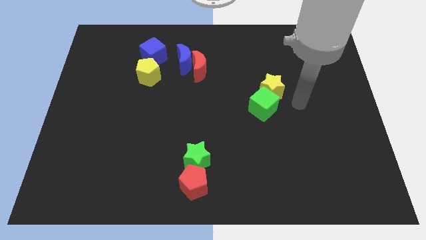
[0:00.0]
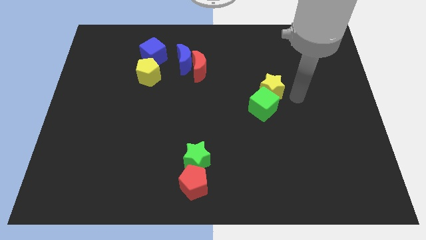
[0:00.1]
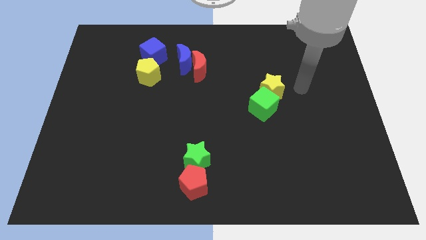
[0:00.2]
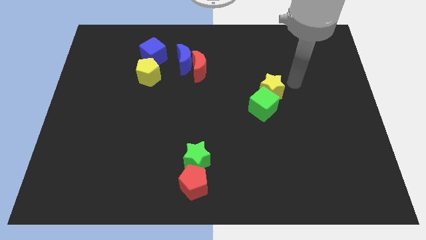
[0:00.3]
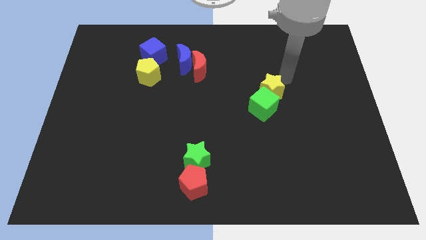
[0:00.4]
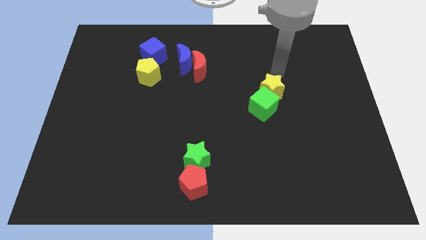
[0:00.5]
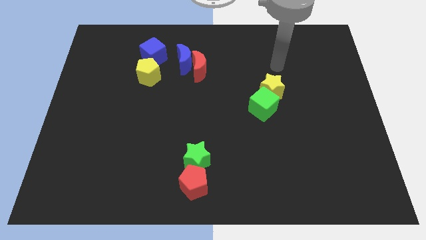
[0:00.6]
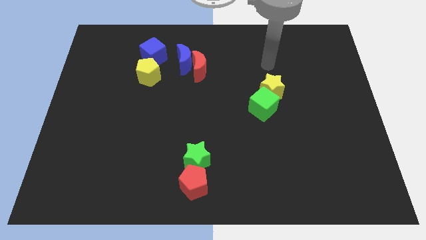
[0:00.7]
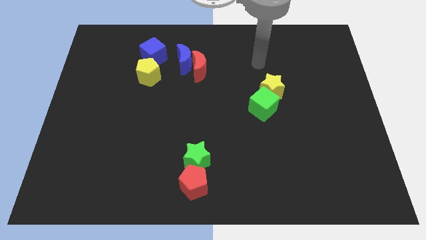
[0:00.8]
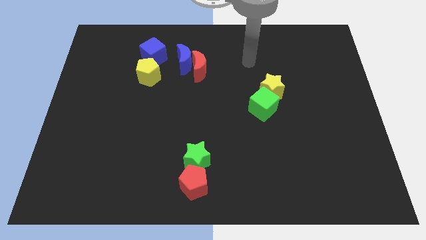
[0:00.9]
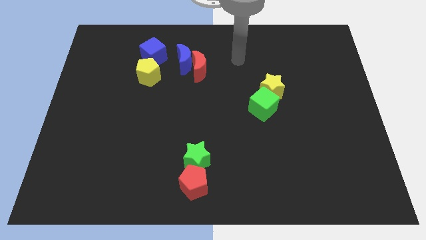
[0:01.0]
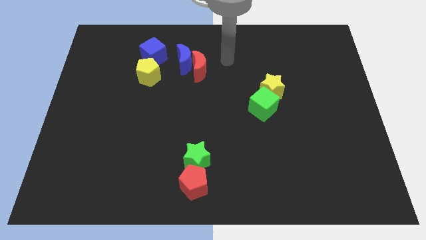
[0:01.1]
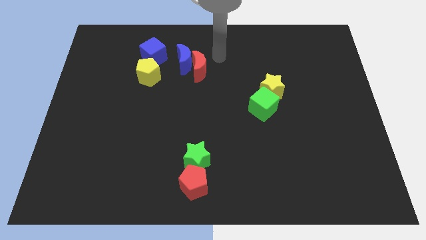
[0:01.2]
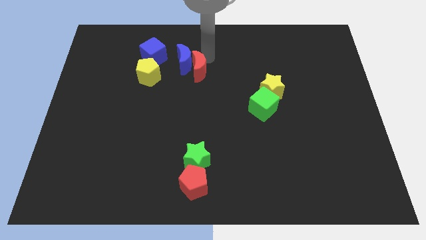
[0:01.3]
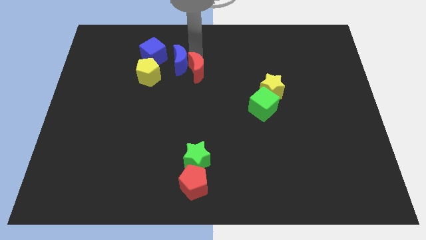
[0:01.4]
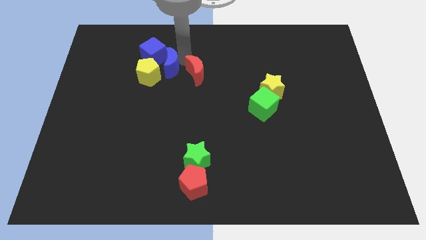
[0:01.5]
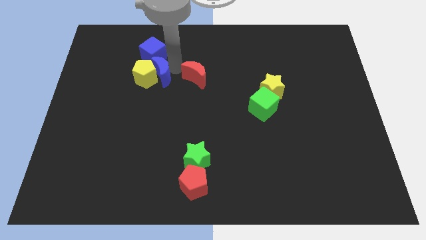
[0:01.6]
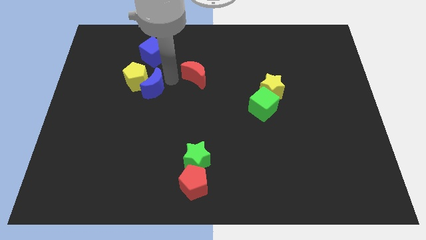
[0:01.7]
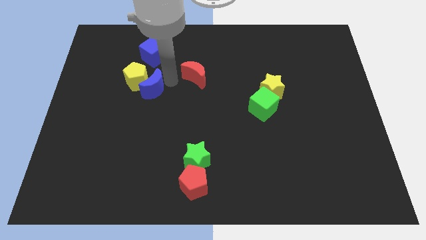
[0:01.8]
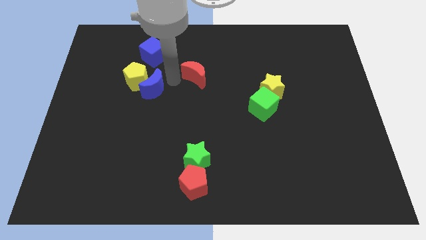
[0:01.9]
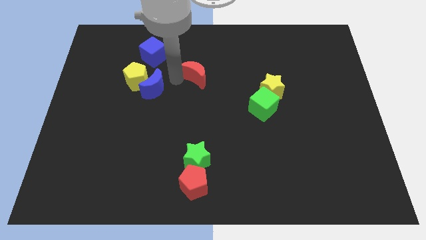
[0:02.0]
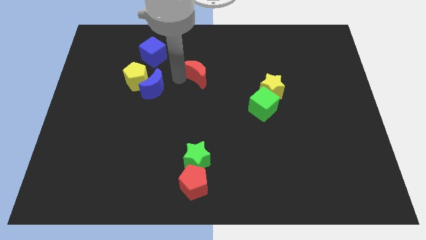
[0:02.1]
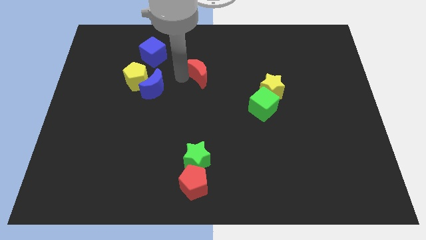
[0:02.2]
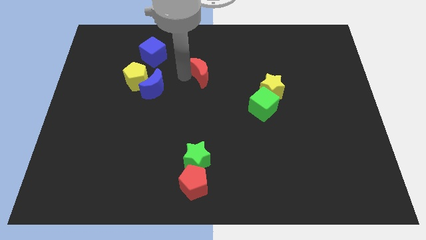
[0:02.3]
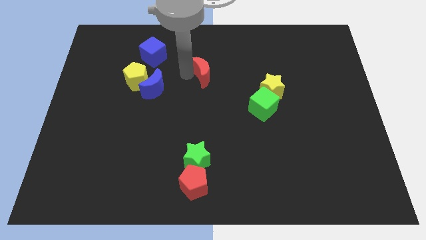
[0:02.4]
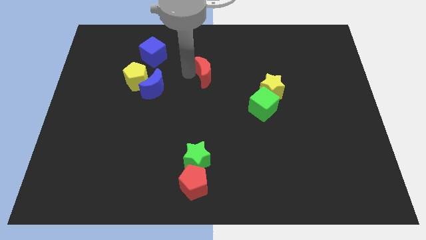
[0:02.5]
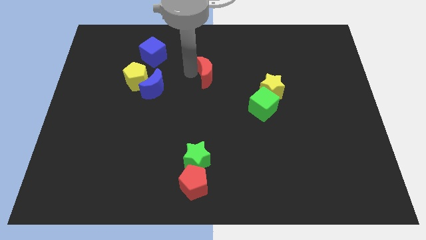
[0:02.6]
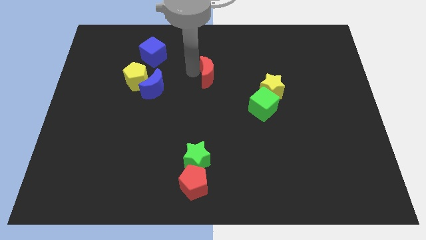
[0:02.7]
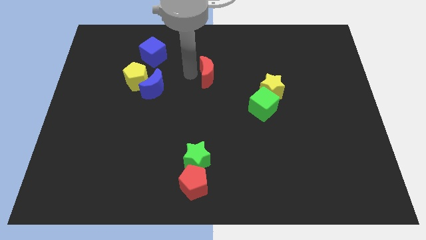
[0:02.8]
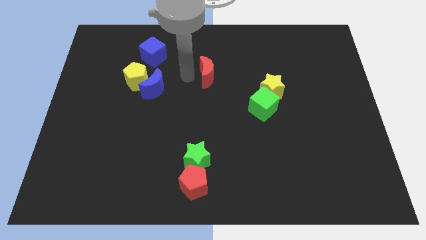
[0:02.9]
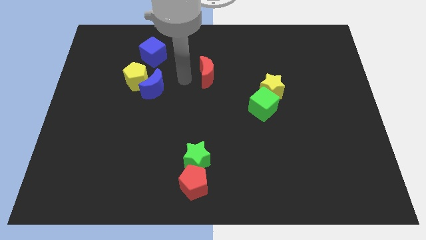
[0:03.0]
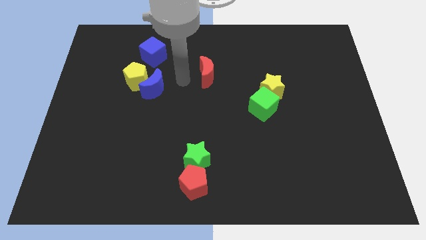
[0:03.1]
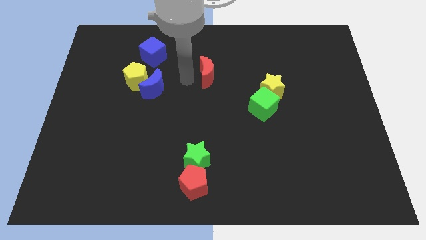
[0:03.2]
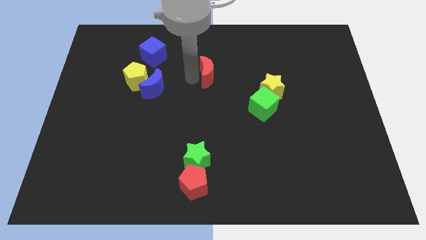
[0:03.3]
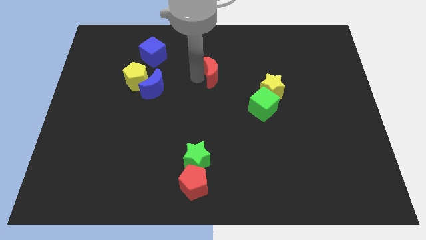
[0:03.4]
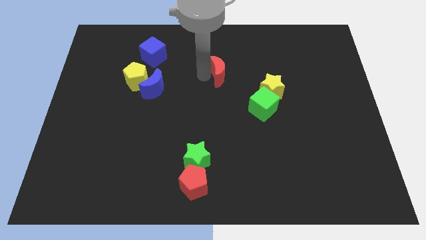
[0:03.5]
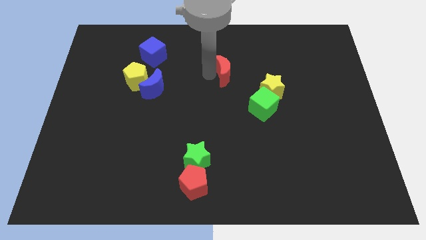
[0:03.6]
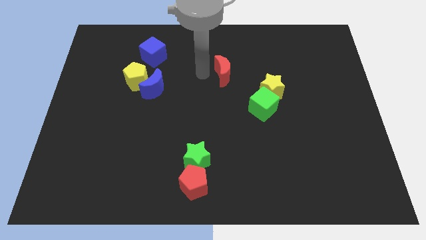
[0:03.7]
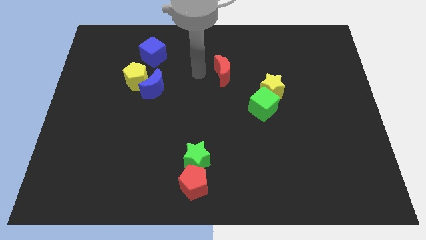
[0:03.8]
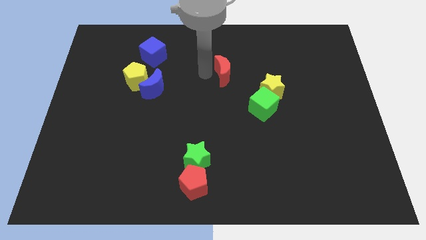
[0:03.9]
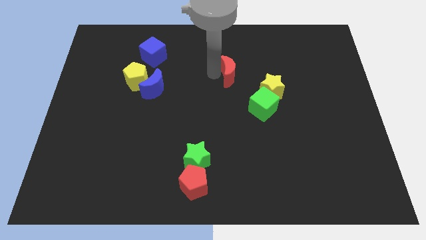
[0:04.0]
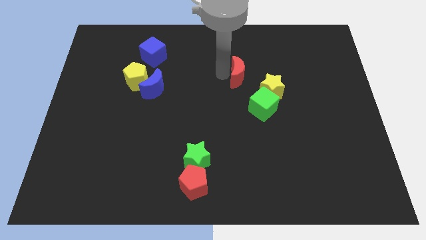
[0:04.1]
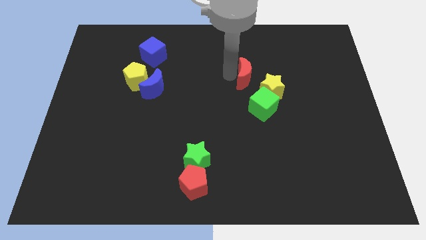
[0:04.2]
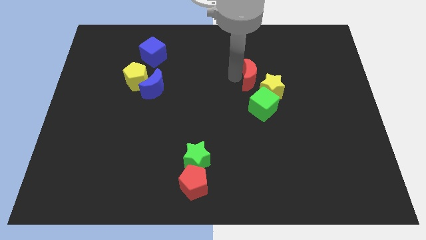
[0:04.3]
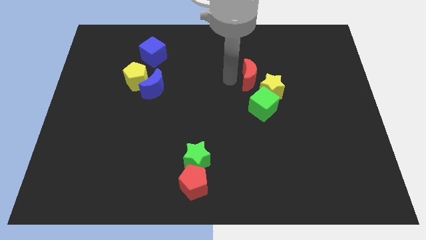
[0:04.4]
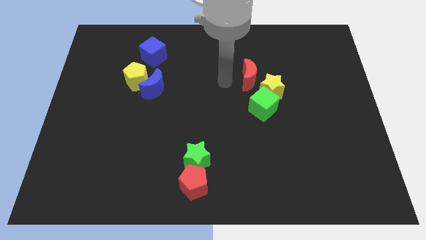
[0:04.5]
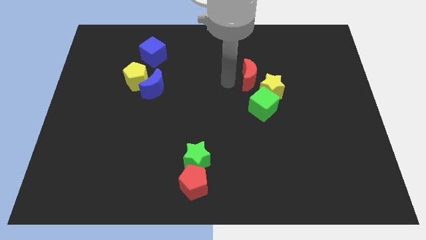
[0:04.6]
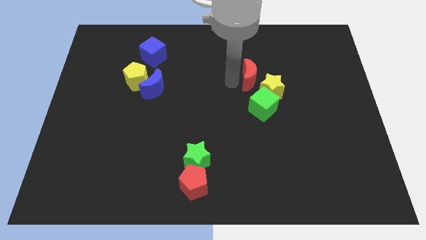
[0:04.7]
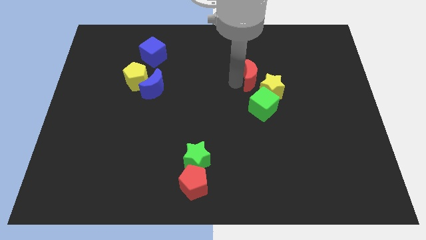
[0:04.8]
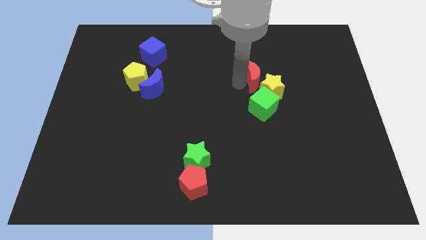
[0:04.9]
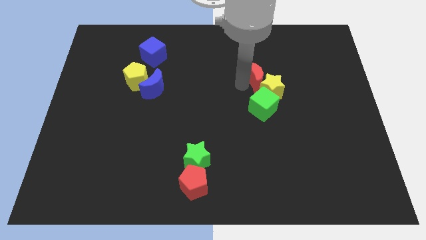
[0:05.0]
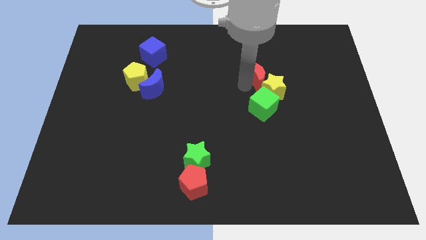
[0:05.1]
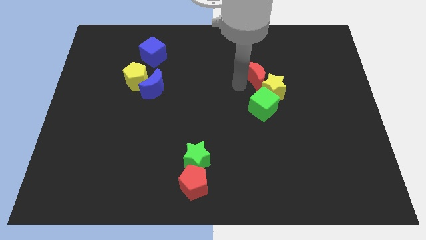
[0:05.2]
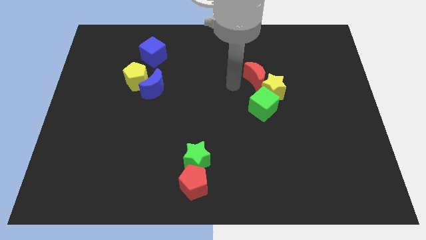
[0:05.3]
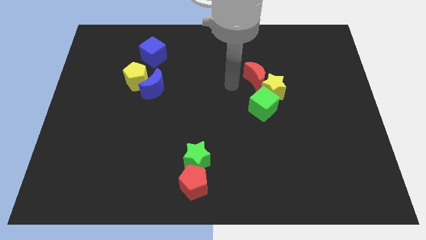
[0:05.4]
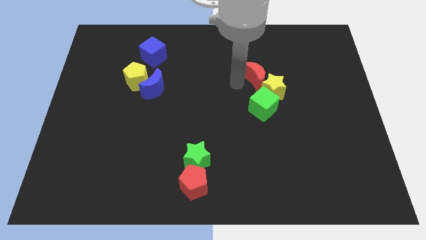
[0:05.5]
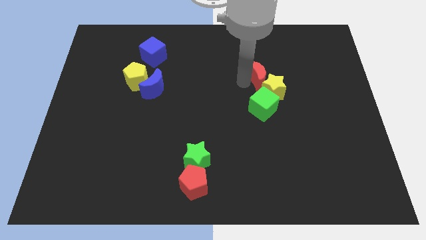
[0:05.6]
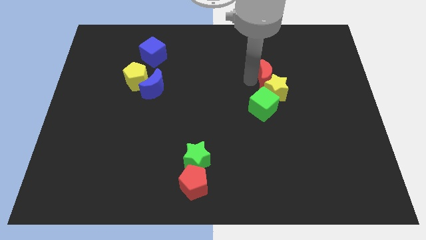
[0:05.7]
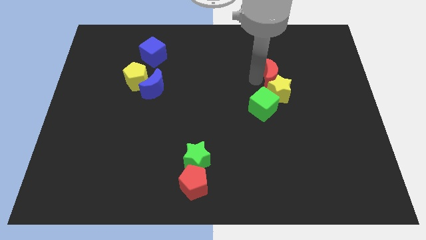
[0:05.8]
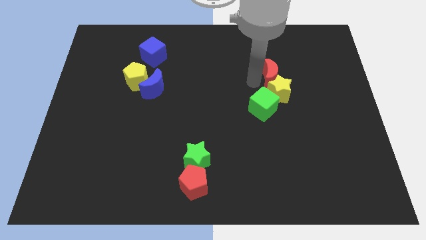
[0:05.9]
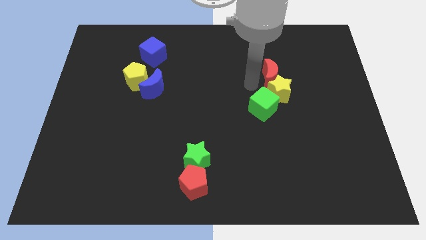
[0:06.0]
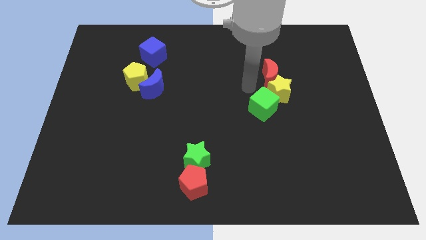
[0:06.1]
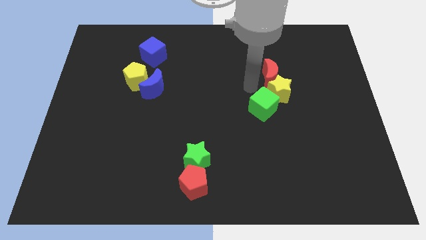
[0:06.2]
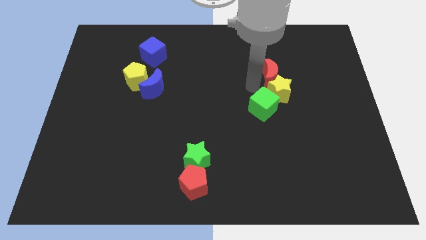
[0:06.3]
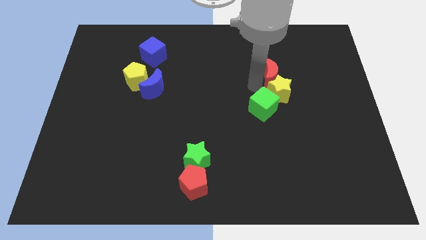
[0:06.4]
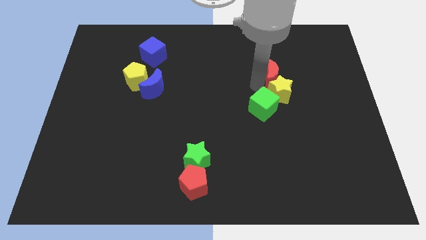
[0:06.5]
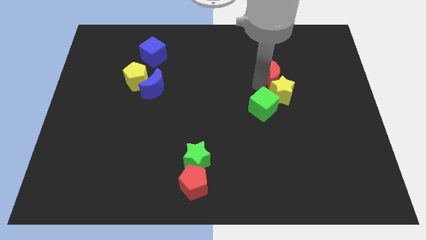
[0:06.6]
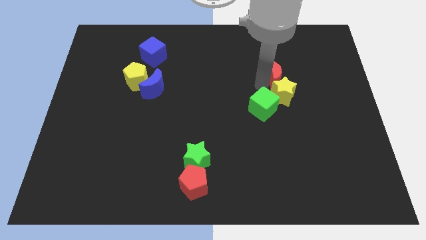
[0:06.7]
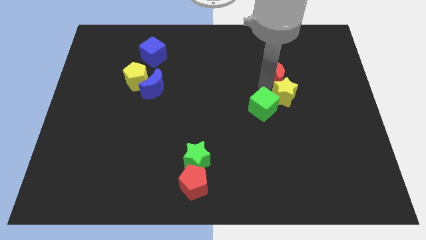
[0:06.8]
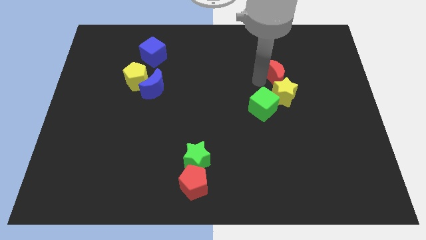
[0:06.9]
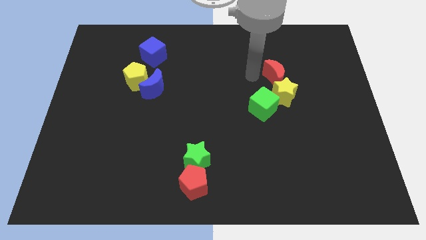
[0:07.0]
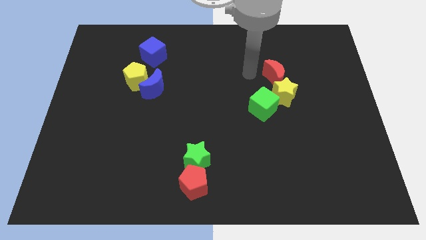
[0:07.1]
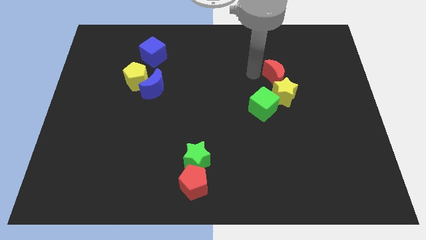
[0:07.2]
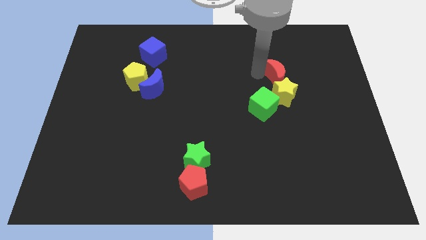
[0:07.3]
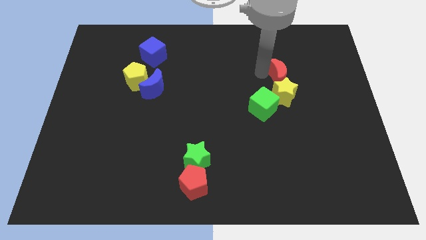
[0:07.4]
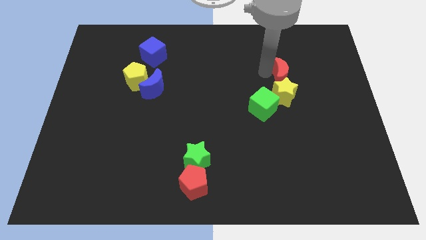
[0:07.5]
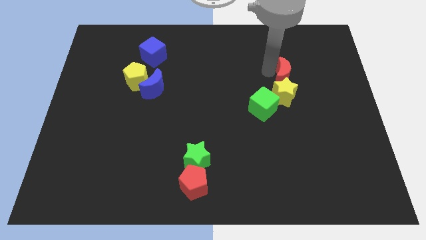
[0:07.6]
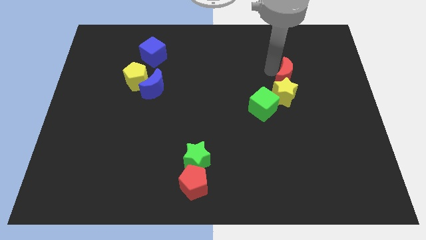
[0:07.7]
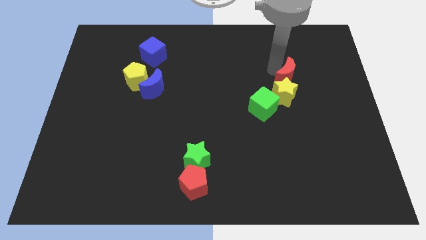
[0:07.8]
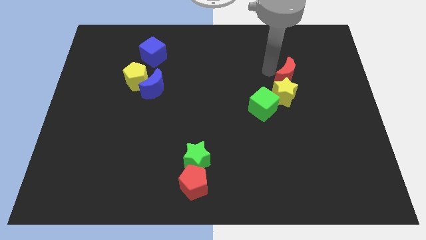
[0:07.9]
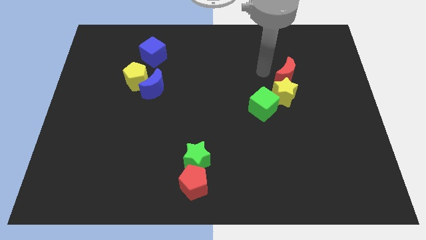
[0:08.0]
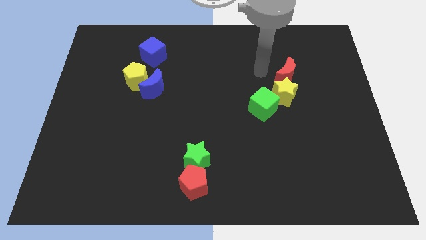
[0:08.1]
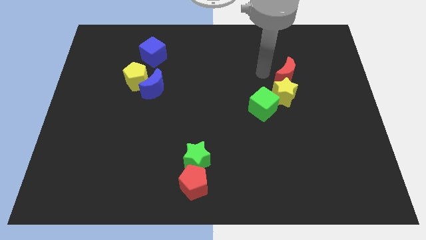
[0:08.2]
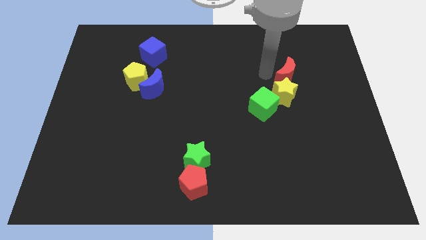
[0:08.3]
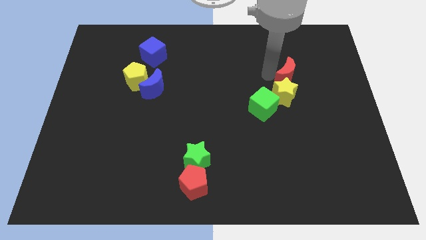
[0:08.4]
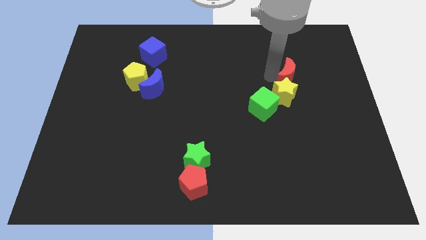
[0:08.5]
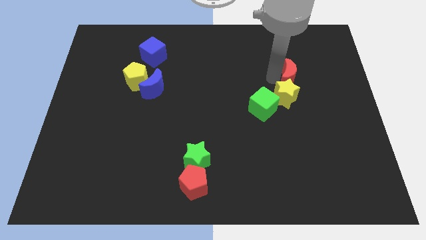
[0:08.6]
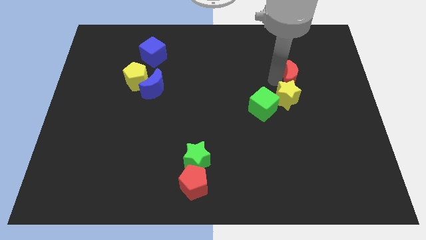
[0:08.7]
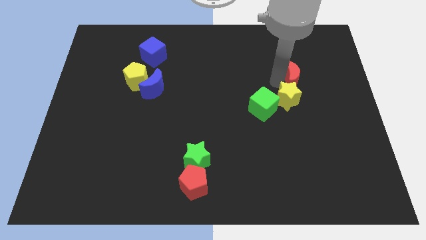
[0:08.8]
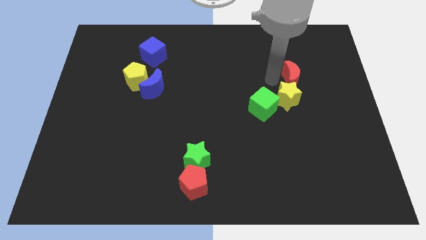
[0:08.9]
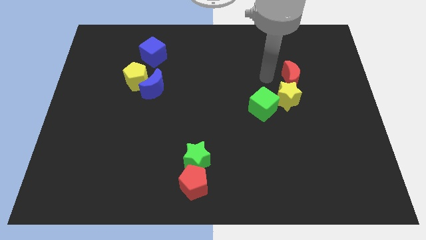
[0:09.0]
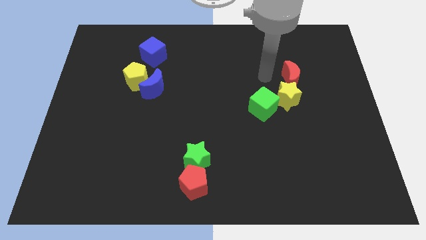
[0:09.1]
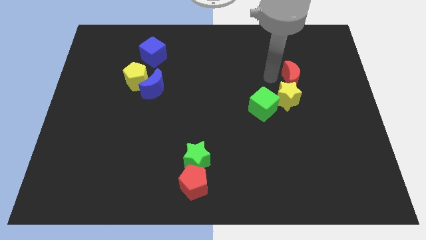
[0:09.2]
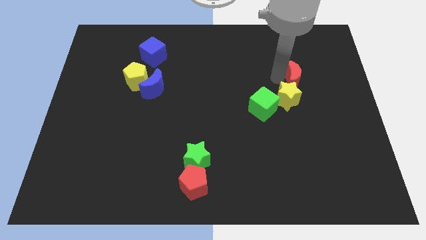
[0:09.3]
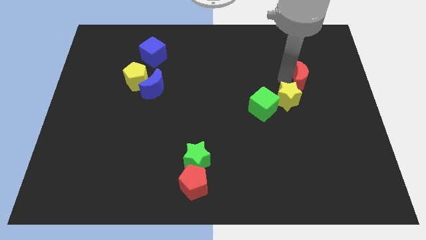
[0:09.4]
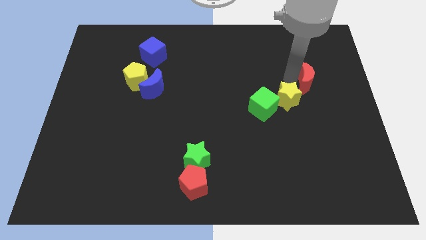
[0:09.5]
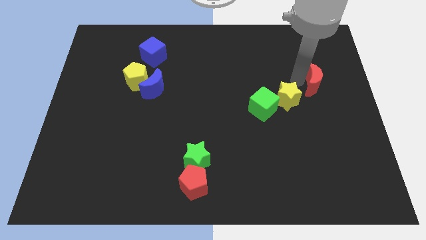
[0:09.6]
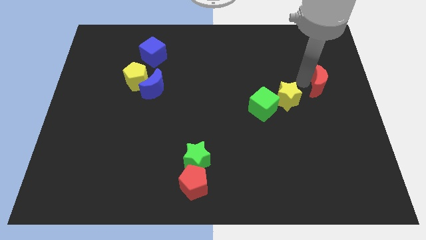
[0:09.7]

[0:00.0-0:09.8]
put the red moon to the right side of the board
